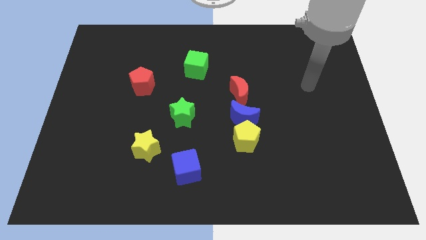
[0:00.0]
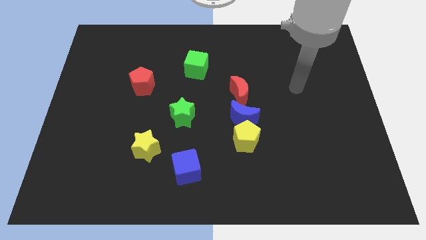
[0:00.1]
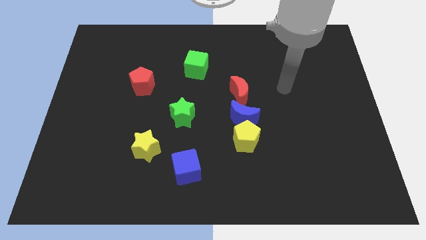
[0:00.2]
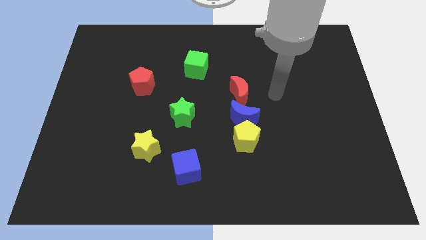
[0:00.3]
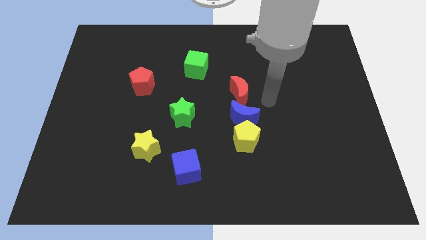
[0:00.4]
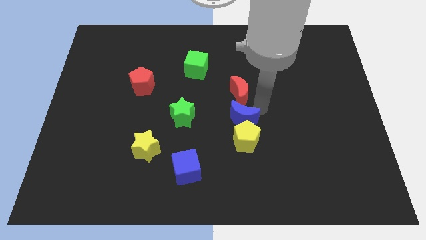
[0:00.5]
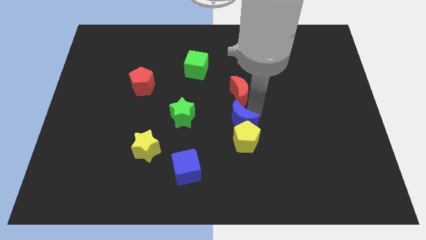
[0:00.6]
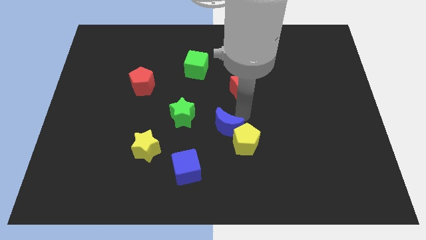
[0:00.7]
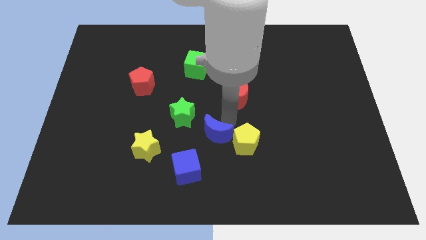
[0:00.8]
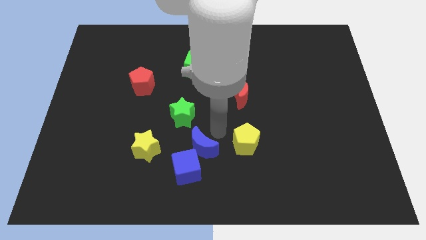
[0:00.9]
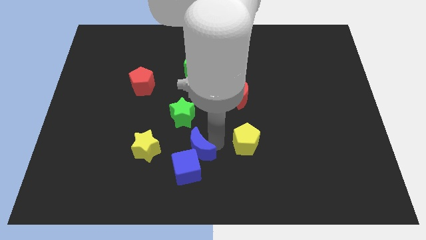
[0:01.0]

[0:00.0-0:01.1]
separate the yellow pentagon from the blue moon

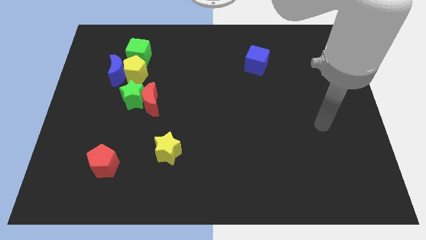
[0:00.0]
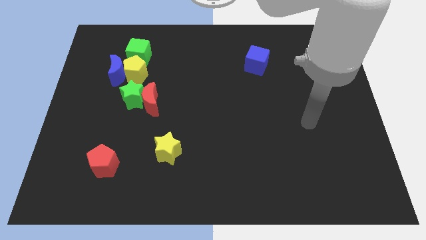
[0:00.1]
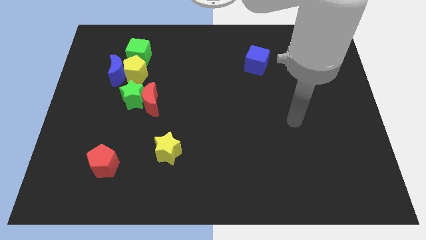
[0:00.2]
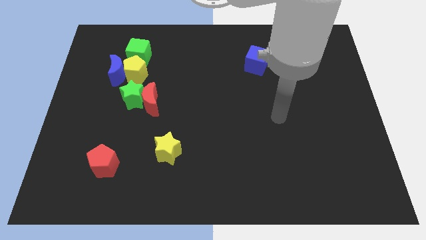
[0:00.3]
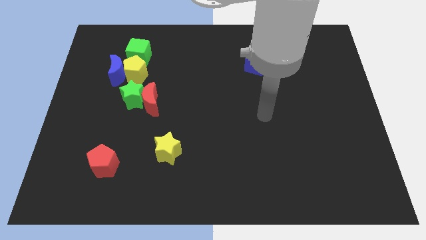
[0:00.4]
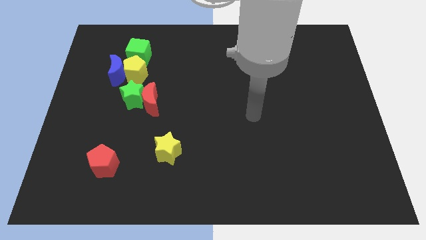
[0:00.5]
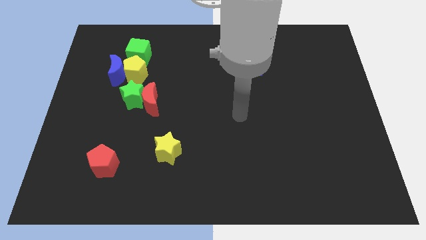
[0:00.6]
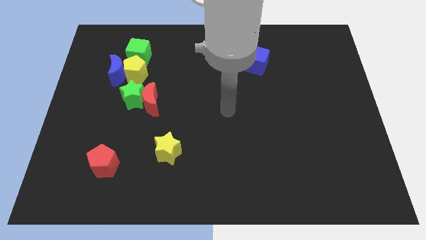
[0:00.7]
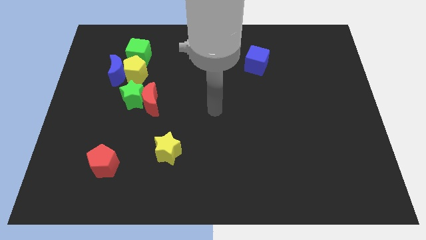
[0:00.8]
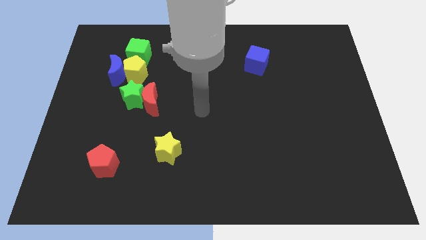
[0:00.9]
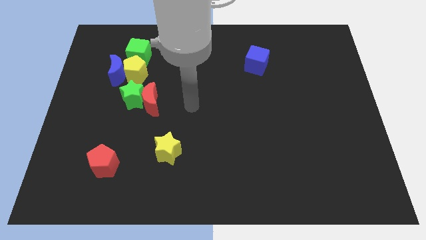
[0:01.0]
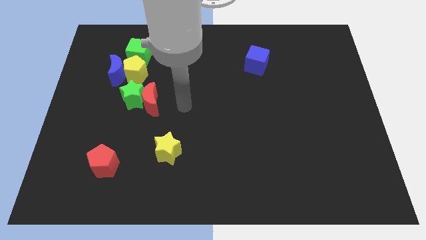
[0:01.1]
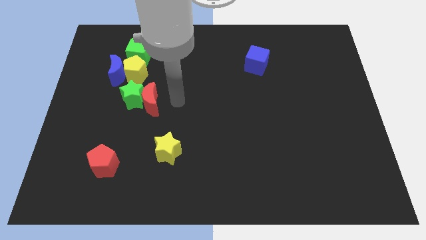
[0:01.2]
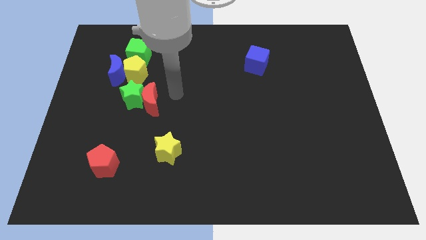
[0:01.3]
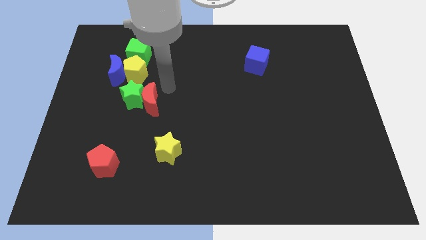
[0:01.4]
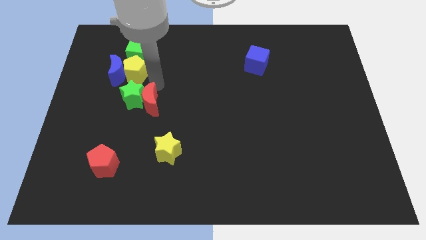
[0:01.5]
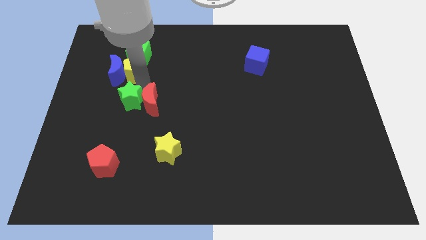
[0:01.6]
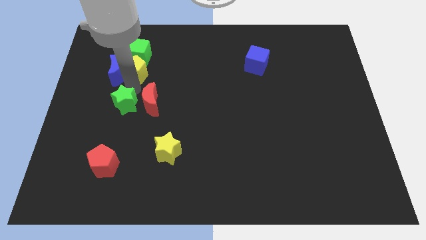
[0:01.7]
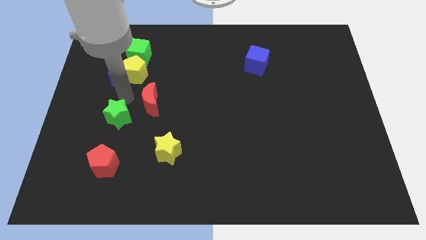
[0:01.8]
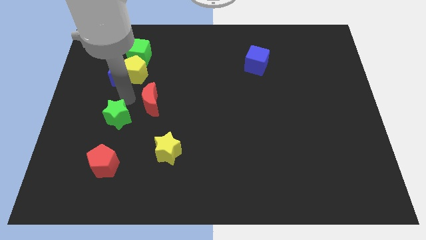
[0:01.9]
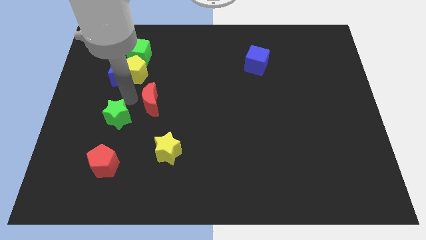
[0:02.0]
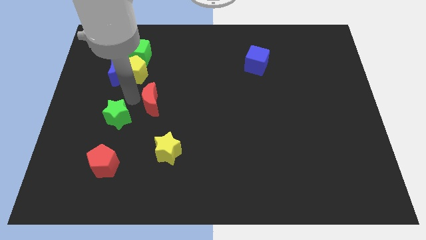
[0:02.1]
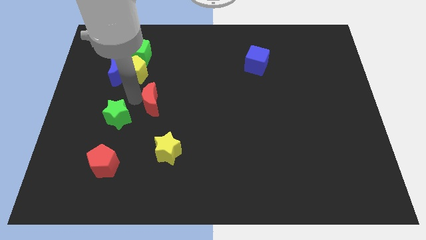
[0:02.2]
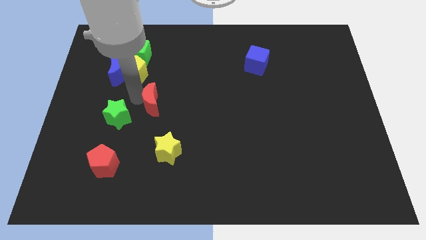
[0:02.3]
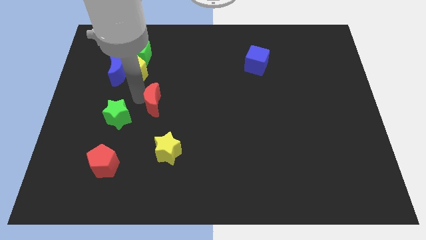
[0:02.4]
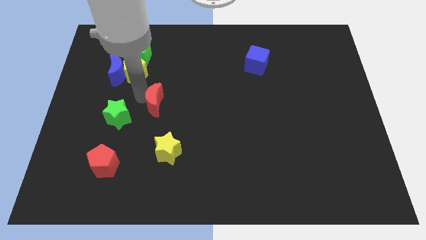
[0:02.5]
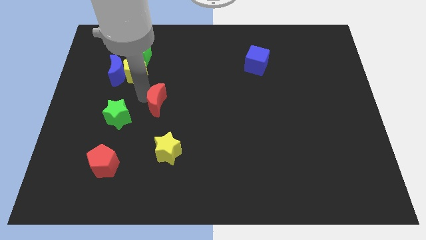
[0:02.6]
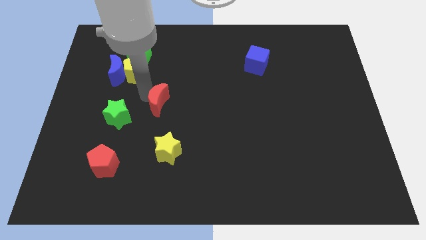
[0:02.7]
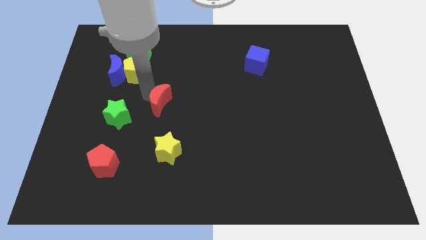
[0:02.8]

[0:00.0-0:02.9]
move the red moon away from the green star

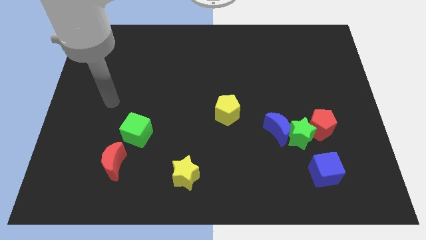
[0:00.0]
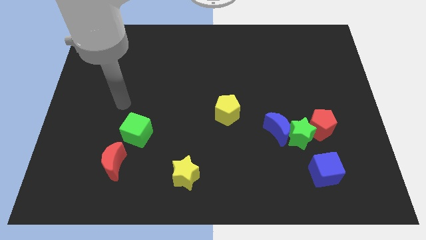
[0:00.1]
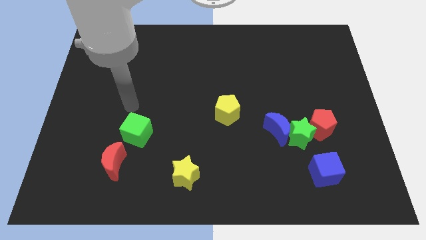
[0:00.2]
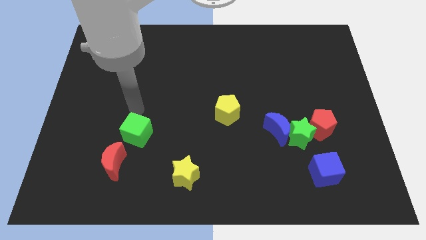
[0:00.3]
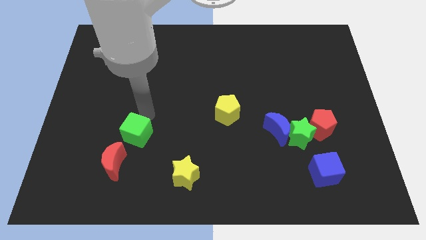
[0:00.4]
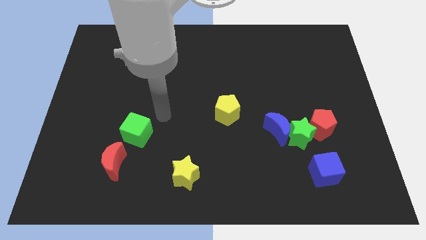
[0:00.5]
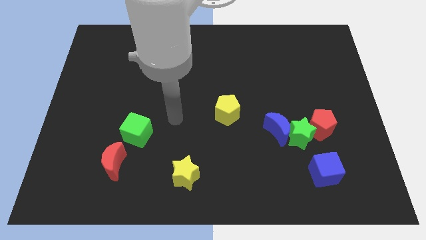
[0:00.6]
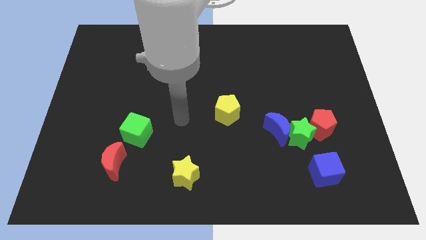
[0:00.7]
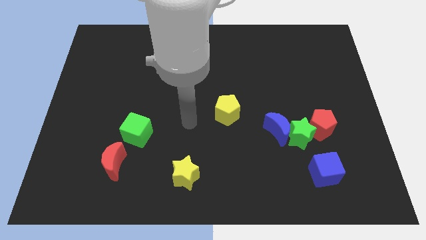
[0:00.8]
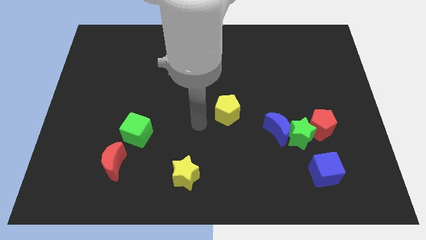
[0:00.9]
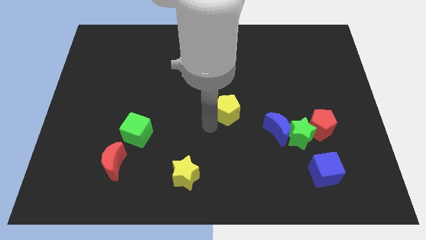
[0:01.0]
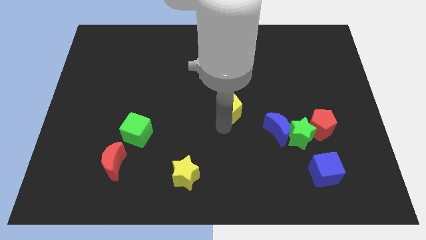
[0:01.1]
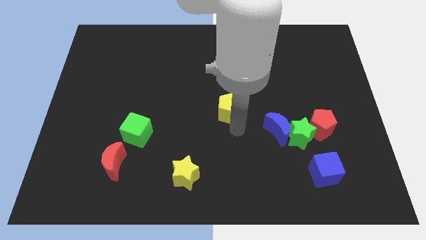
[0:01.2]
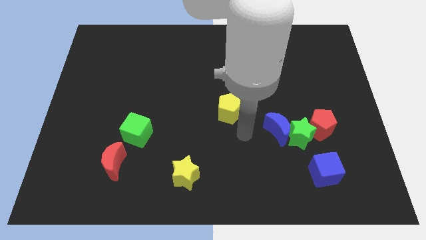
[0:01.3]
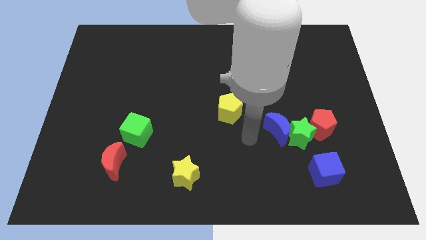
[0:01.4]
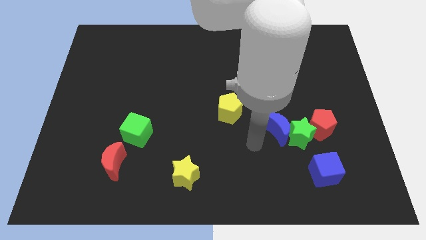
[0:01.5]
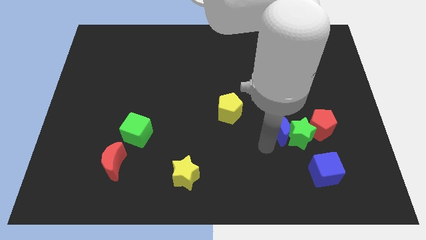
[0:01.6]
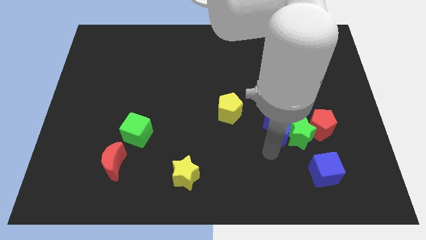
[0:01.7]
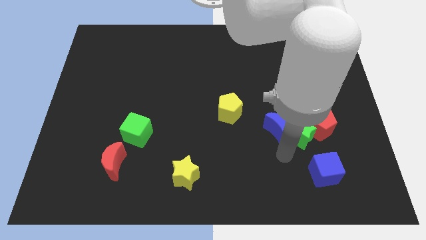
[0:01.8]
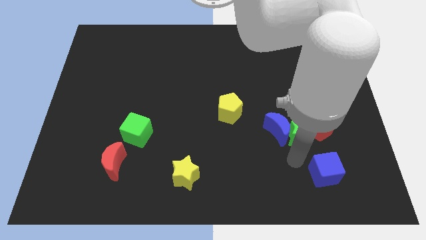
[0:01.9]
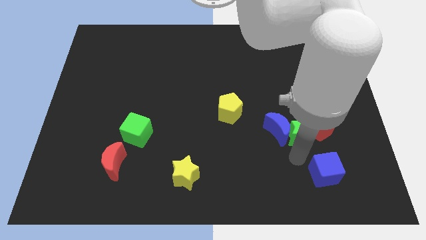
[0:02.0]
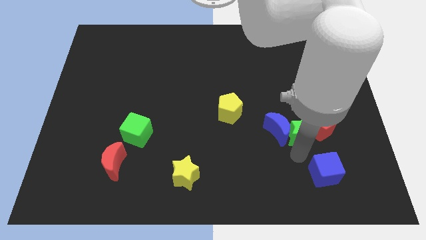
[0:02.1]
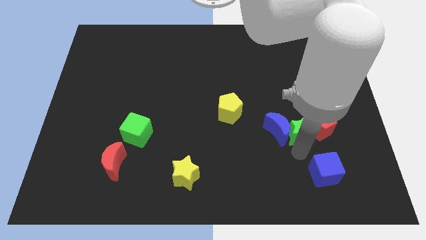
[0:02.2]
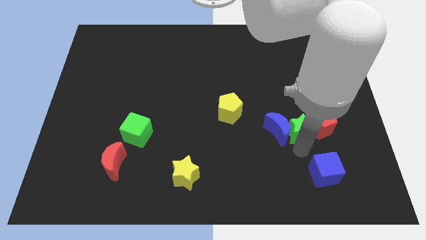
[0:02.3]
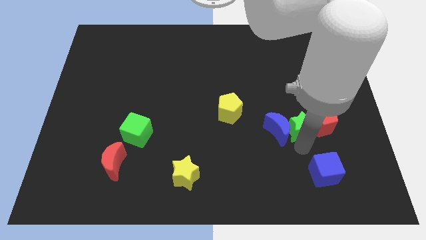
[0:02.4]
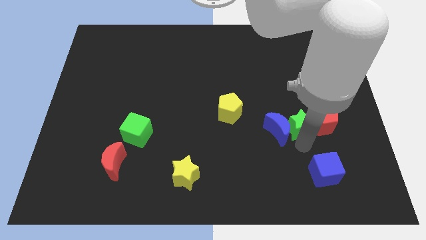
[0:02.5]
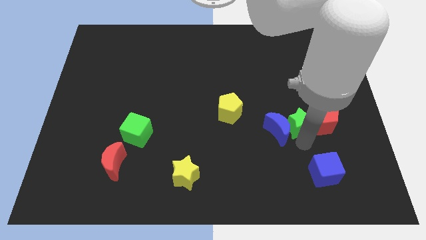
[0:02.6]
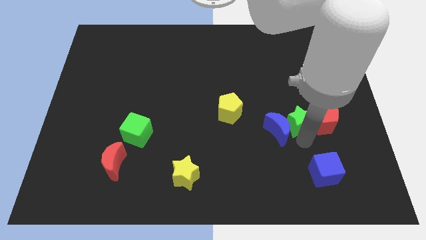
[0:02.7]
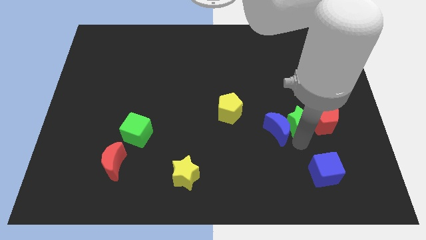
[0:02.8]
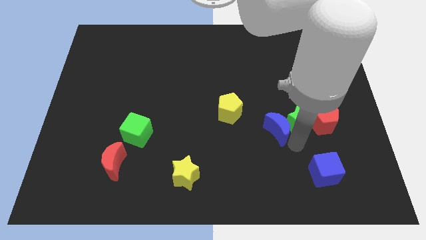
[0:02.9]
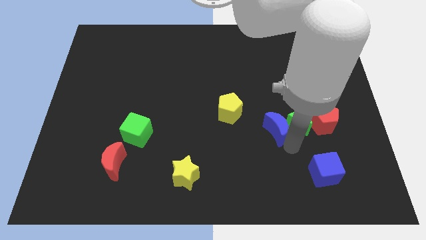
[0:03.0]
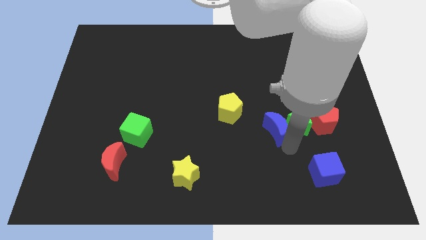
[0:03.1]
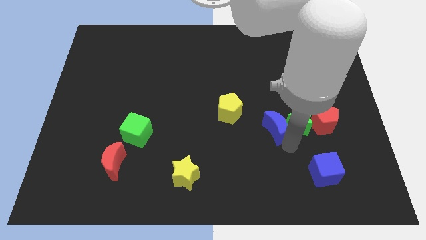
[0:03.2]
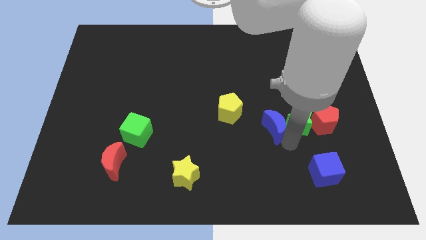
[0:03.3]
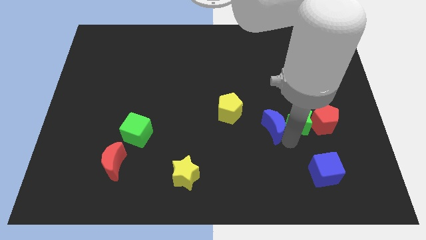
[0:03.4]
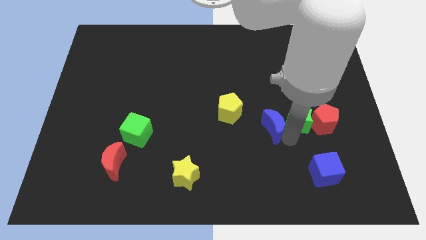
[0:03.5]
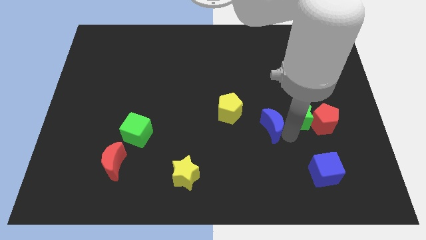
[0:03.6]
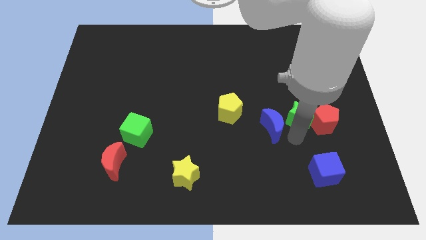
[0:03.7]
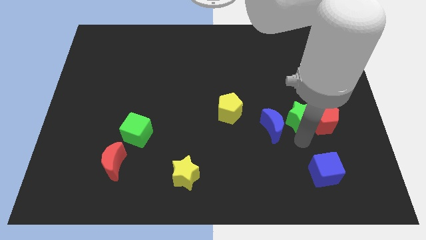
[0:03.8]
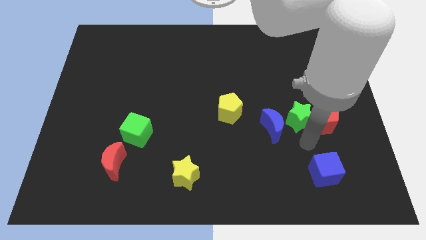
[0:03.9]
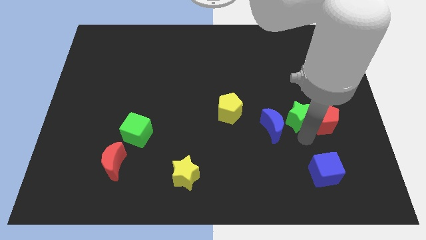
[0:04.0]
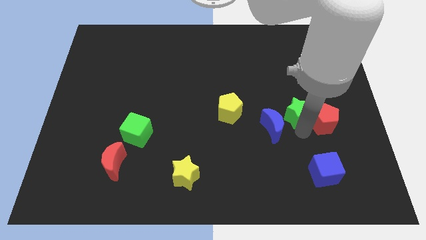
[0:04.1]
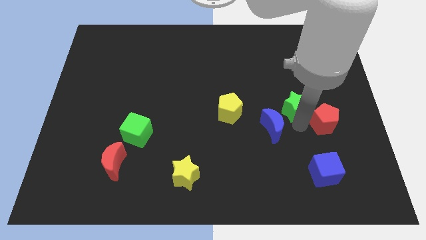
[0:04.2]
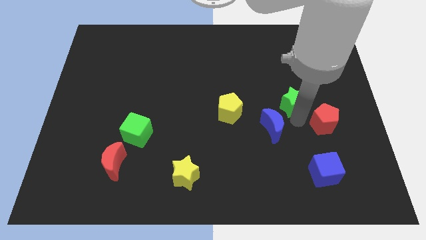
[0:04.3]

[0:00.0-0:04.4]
separate the green star from the clump

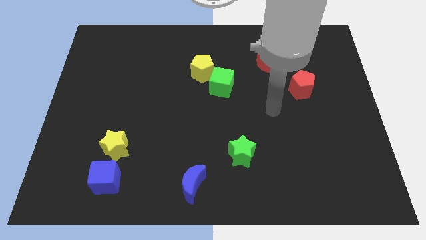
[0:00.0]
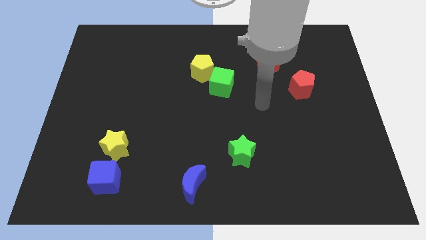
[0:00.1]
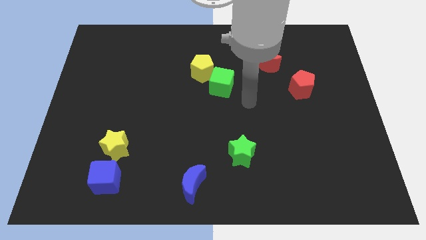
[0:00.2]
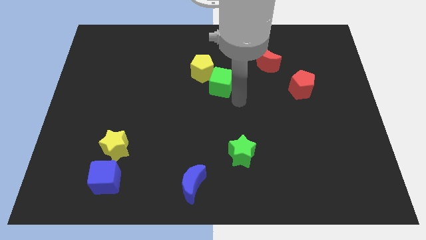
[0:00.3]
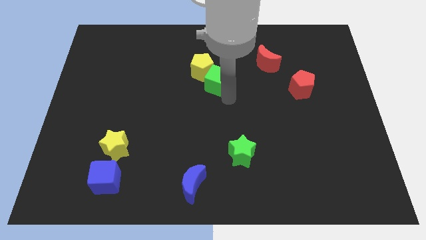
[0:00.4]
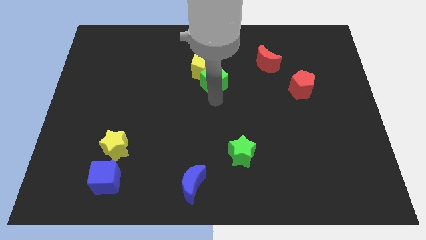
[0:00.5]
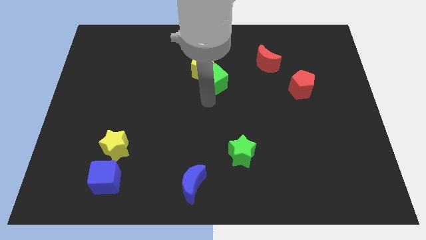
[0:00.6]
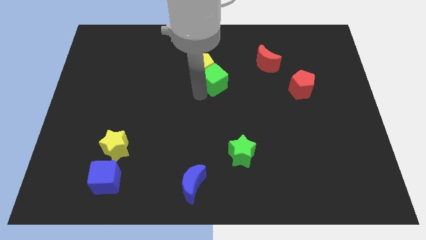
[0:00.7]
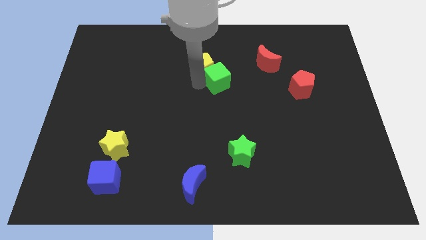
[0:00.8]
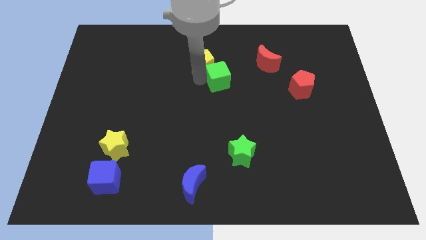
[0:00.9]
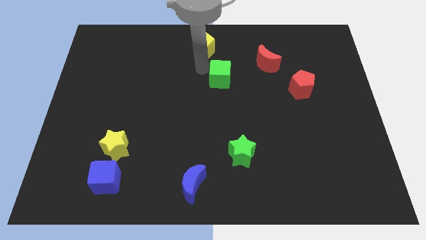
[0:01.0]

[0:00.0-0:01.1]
separate the green cube from the yellow pentagon
